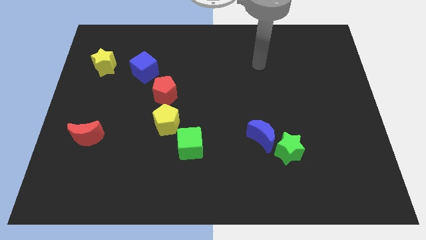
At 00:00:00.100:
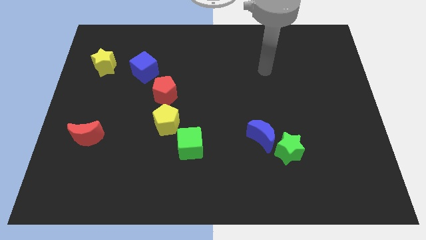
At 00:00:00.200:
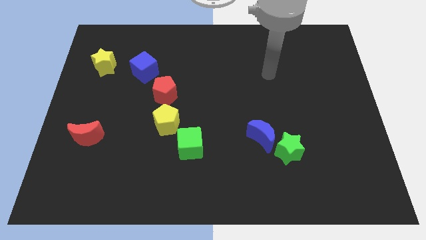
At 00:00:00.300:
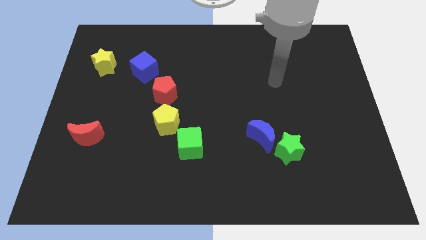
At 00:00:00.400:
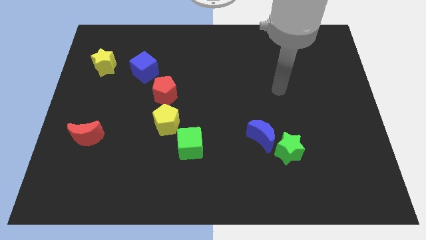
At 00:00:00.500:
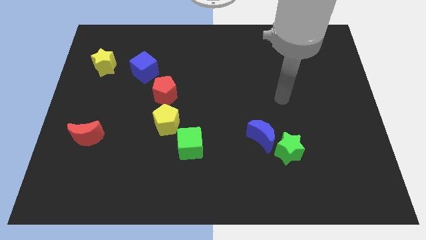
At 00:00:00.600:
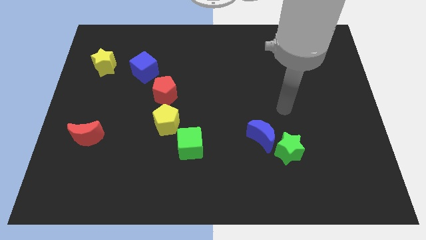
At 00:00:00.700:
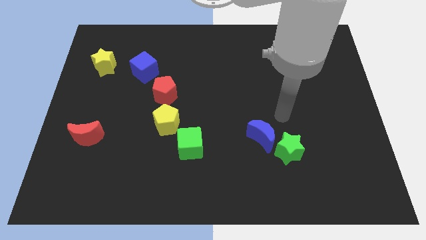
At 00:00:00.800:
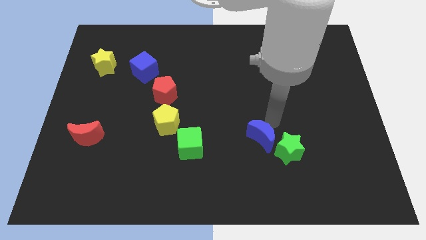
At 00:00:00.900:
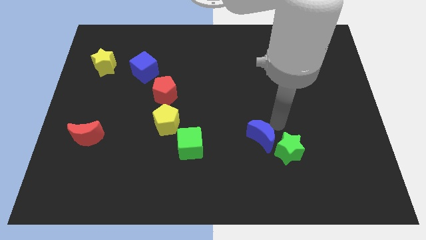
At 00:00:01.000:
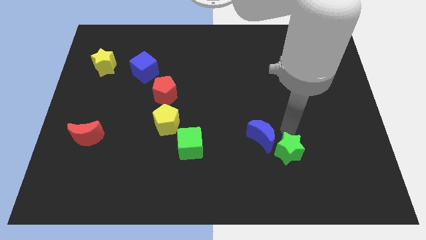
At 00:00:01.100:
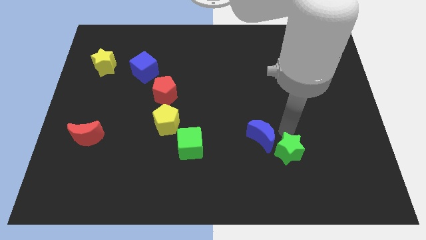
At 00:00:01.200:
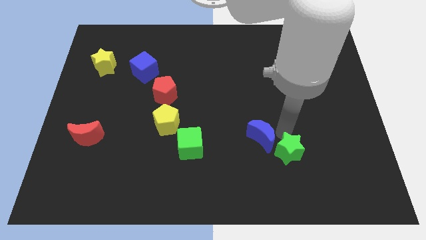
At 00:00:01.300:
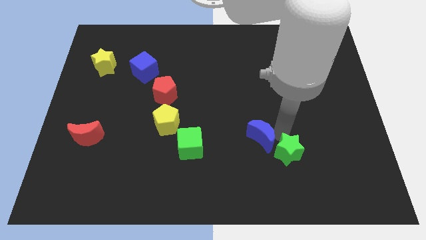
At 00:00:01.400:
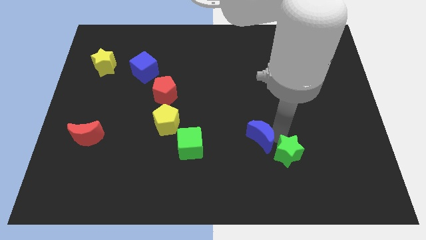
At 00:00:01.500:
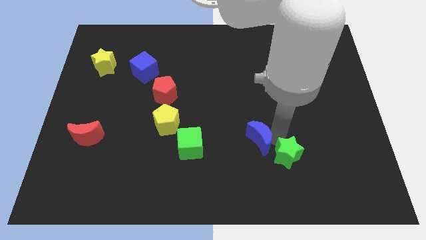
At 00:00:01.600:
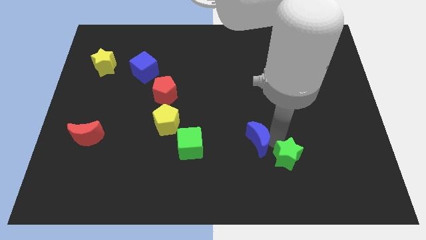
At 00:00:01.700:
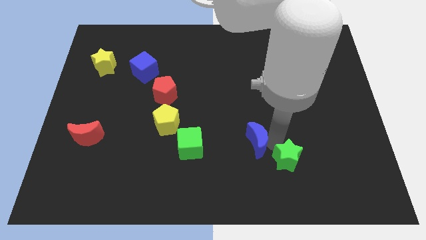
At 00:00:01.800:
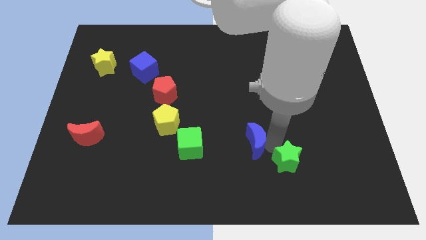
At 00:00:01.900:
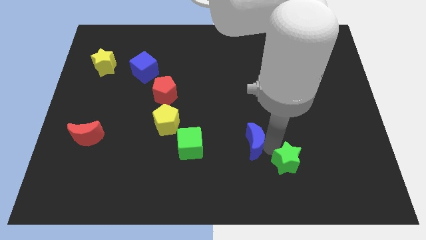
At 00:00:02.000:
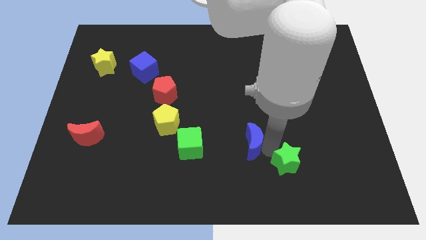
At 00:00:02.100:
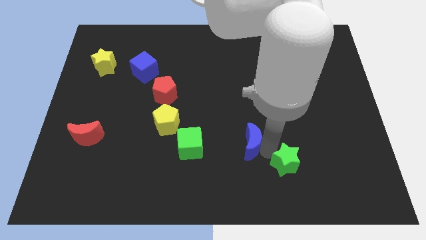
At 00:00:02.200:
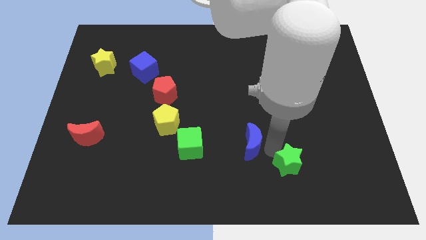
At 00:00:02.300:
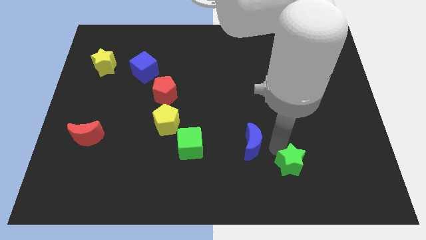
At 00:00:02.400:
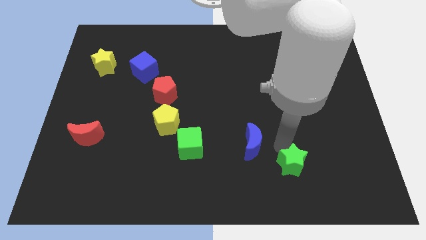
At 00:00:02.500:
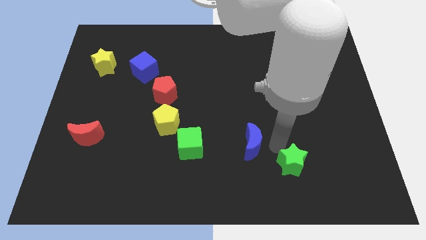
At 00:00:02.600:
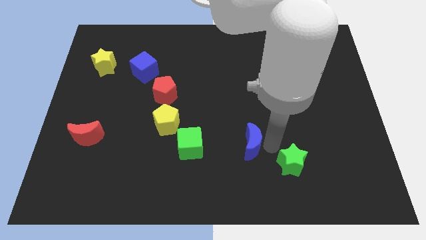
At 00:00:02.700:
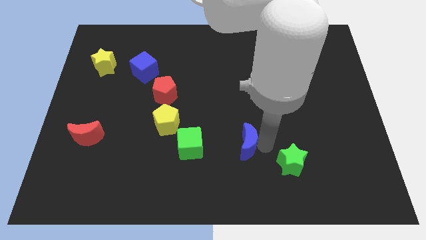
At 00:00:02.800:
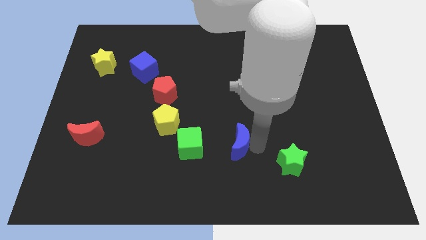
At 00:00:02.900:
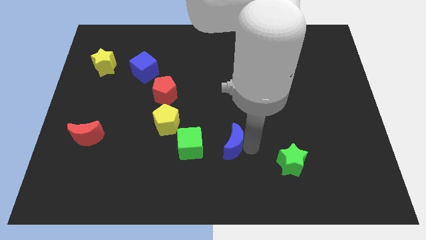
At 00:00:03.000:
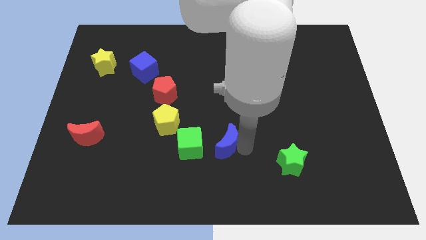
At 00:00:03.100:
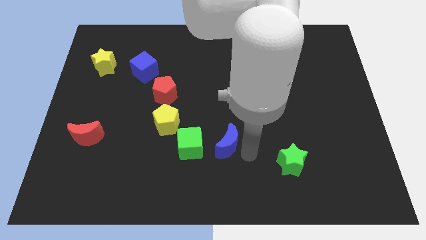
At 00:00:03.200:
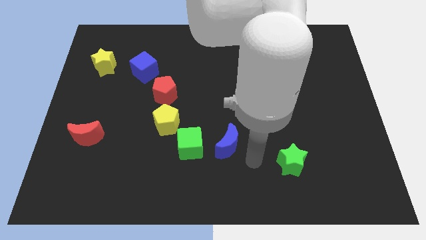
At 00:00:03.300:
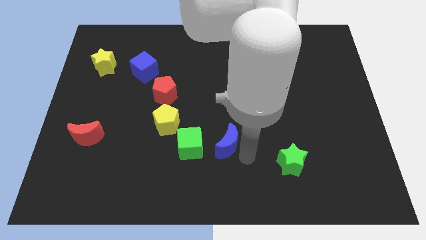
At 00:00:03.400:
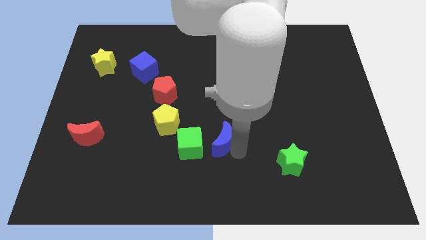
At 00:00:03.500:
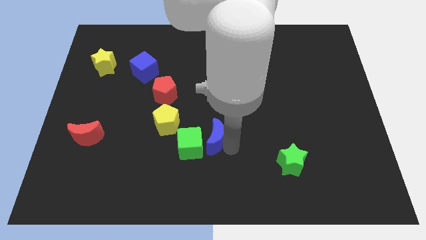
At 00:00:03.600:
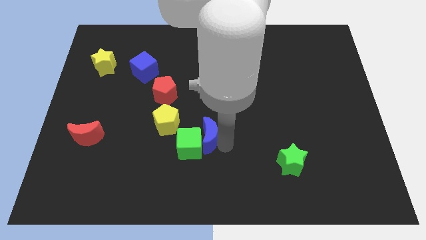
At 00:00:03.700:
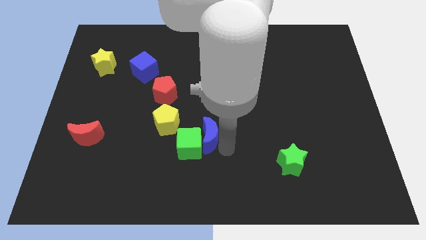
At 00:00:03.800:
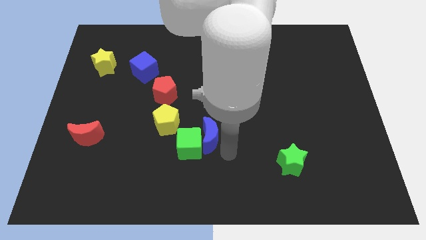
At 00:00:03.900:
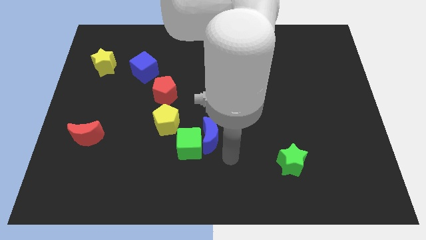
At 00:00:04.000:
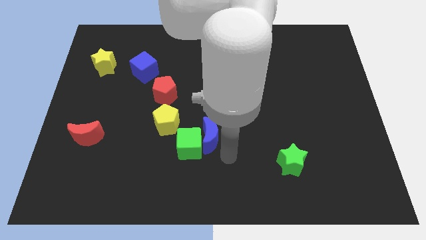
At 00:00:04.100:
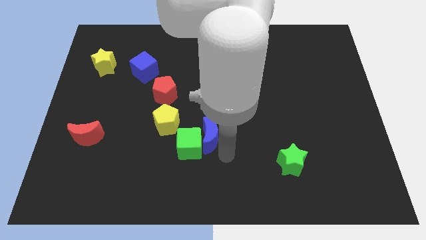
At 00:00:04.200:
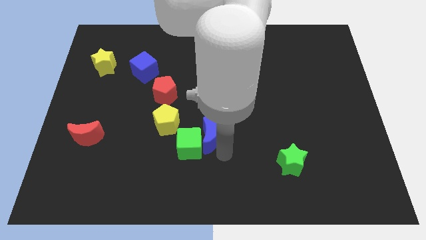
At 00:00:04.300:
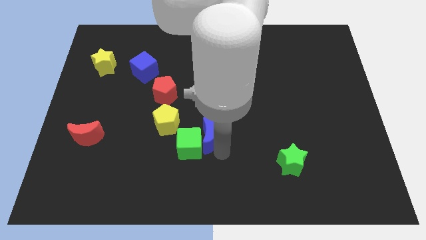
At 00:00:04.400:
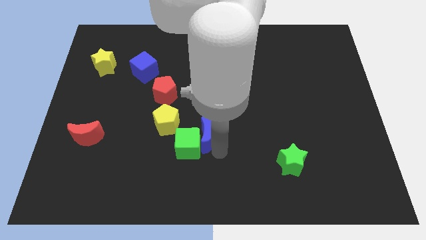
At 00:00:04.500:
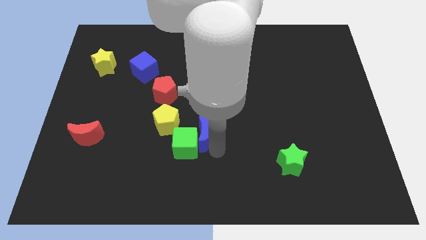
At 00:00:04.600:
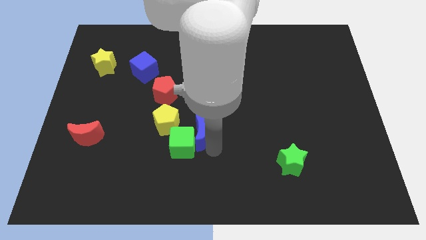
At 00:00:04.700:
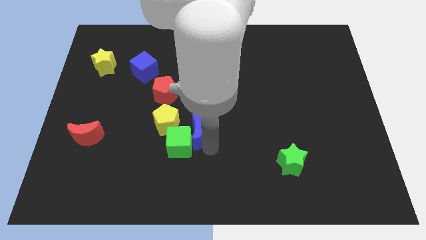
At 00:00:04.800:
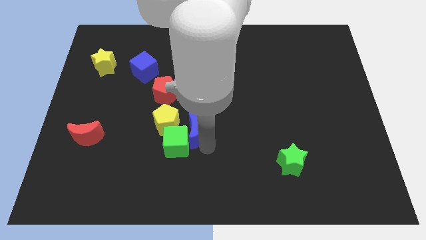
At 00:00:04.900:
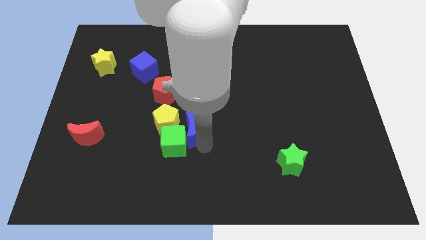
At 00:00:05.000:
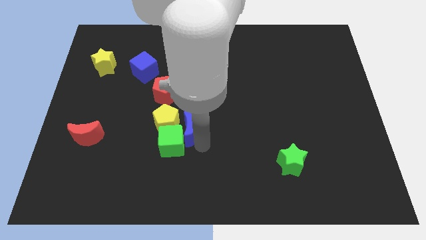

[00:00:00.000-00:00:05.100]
move the blue moon to the yellow pentagon

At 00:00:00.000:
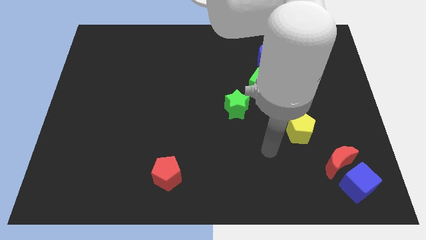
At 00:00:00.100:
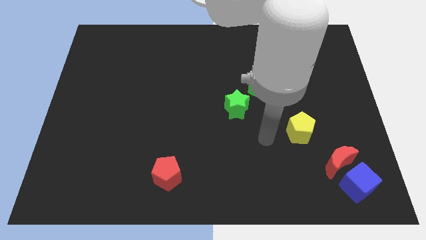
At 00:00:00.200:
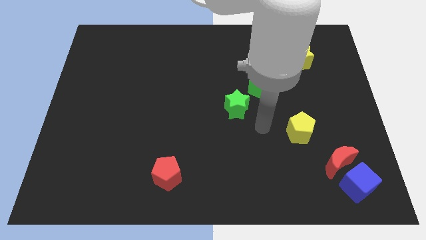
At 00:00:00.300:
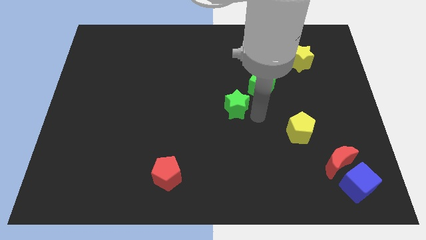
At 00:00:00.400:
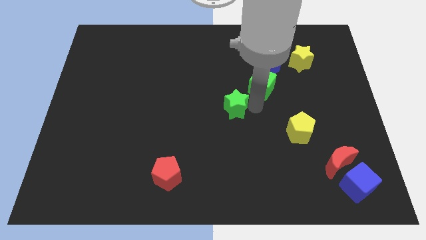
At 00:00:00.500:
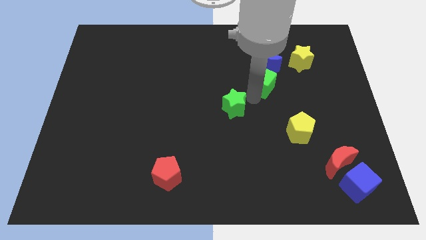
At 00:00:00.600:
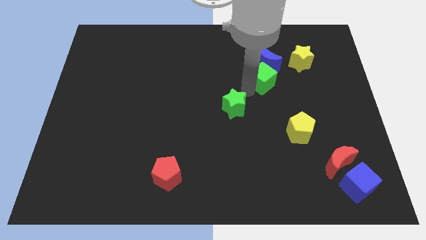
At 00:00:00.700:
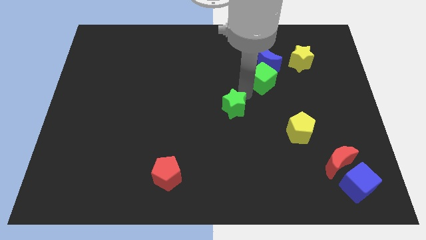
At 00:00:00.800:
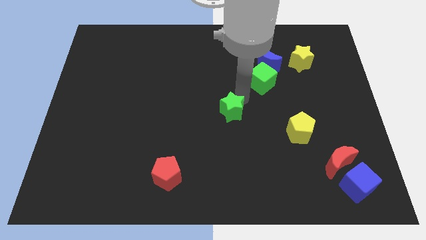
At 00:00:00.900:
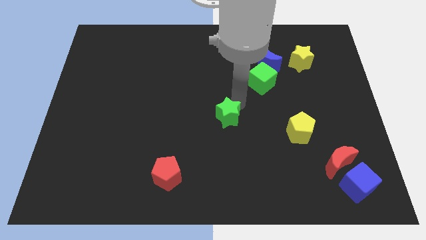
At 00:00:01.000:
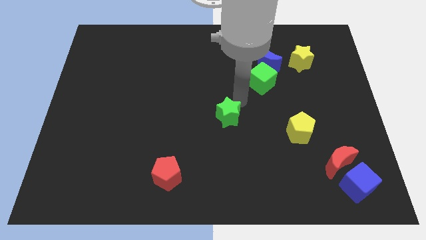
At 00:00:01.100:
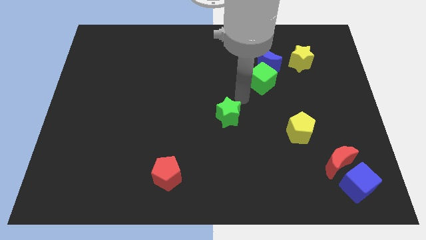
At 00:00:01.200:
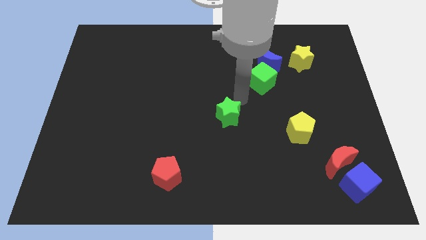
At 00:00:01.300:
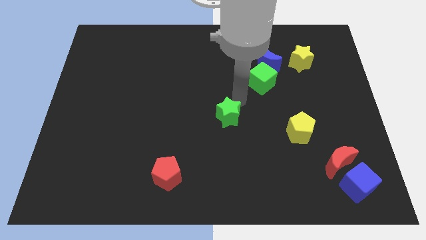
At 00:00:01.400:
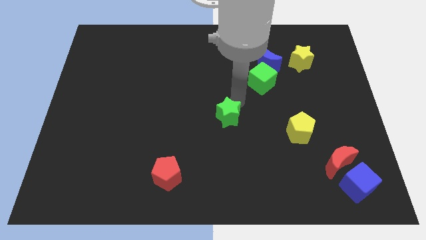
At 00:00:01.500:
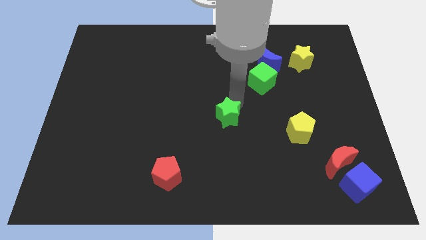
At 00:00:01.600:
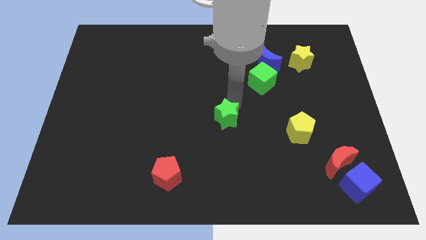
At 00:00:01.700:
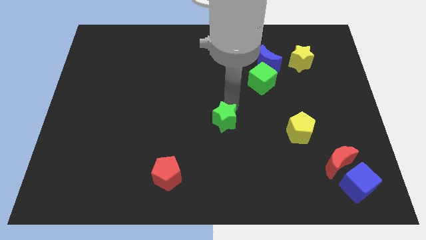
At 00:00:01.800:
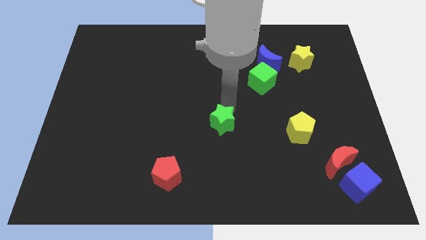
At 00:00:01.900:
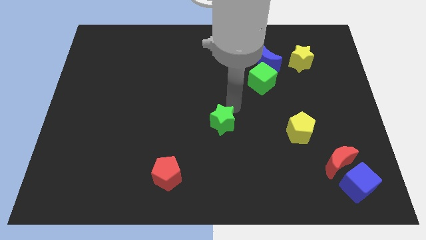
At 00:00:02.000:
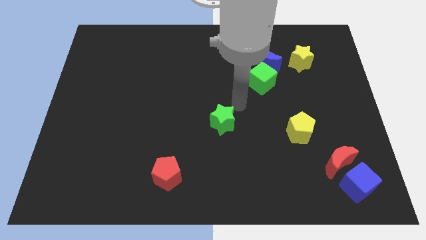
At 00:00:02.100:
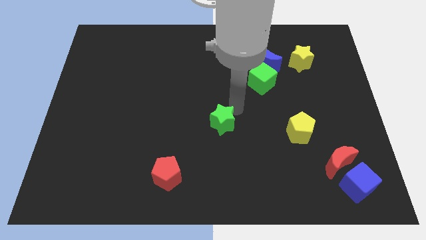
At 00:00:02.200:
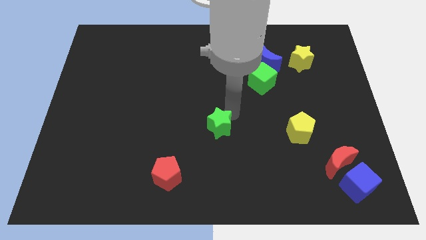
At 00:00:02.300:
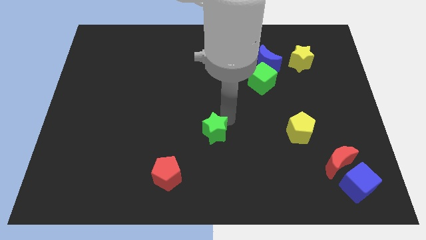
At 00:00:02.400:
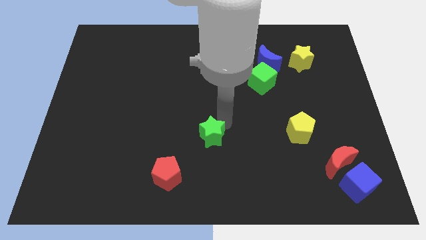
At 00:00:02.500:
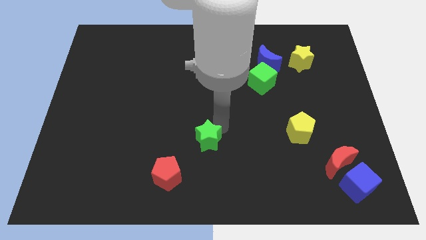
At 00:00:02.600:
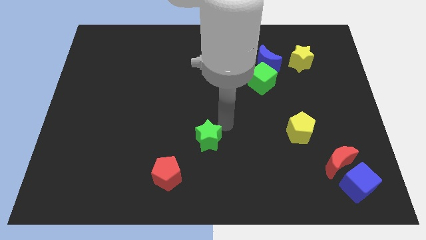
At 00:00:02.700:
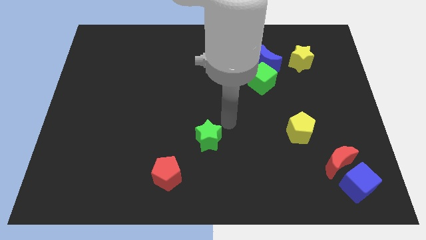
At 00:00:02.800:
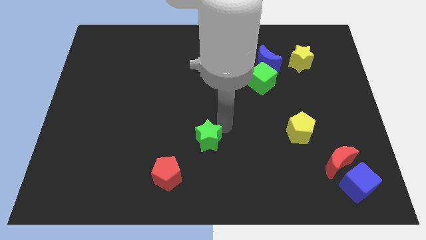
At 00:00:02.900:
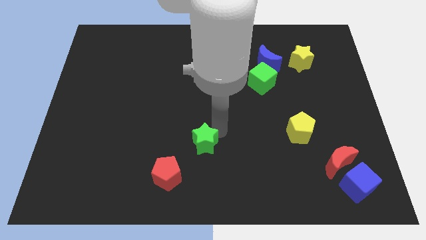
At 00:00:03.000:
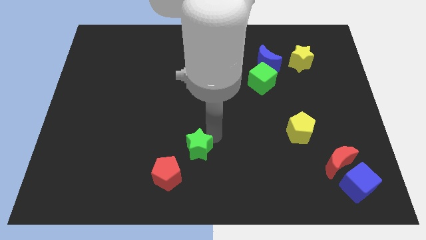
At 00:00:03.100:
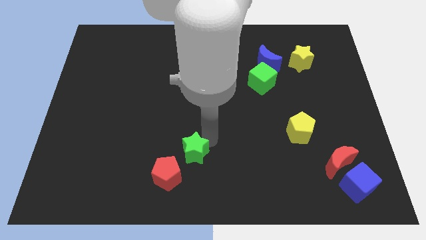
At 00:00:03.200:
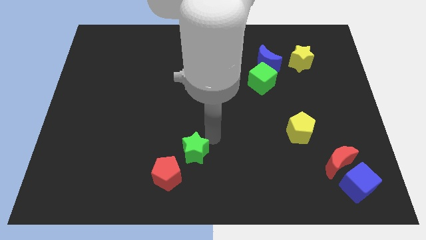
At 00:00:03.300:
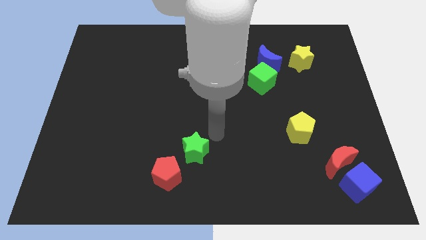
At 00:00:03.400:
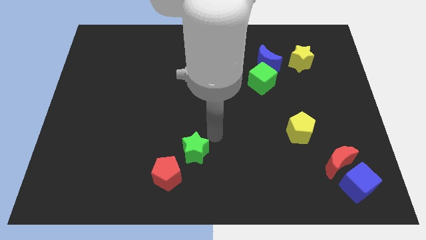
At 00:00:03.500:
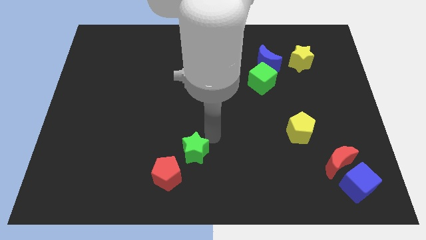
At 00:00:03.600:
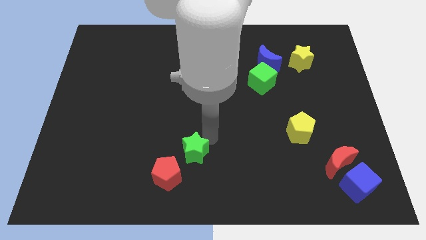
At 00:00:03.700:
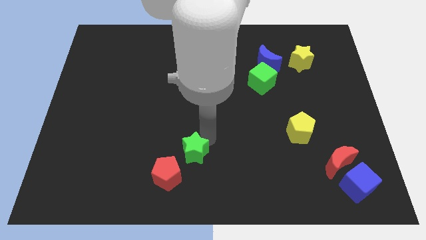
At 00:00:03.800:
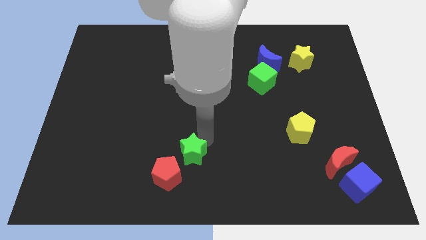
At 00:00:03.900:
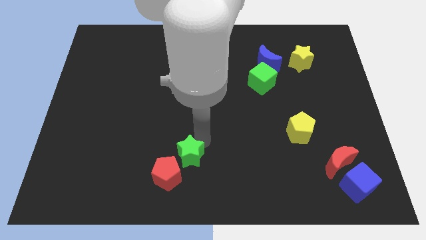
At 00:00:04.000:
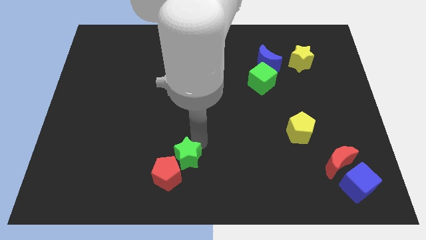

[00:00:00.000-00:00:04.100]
put the green star towards the red pentagon
